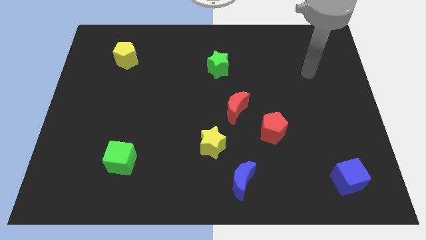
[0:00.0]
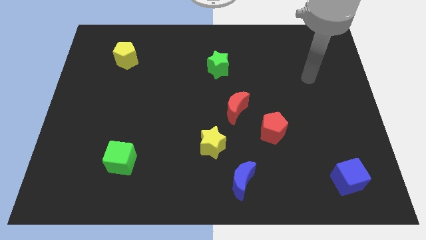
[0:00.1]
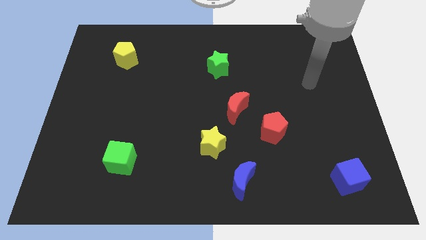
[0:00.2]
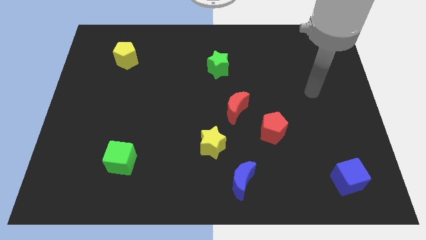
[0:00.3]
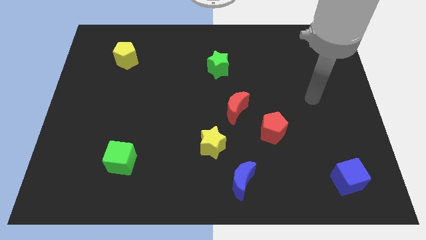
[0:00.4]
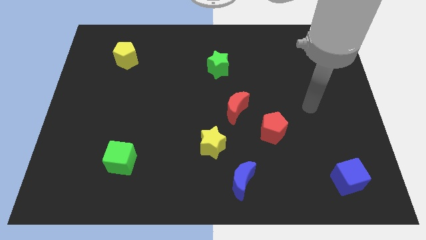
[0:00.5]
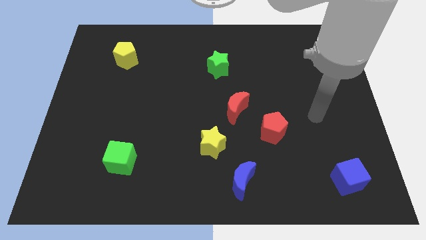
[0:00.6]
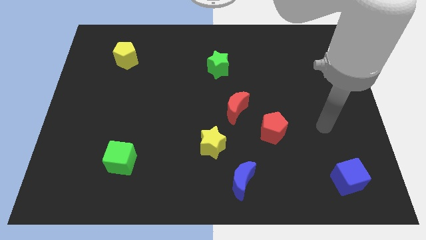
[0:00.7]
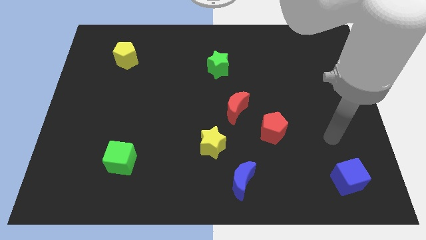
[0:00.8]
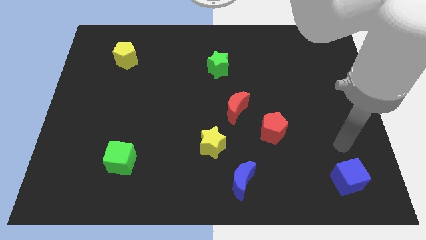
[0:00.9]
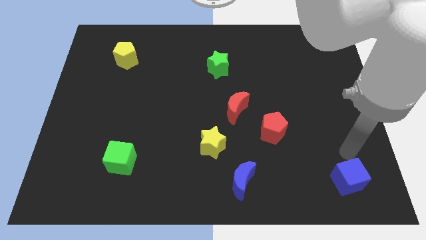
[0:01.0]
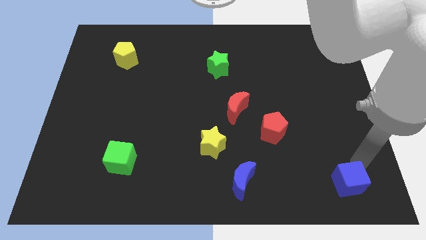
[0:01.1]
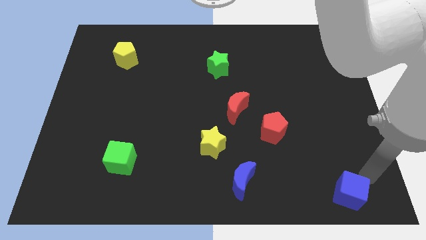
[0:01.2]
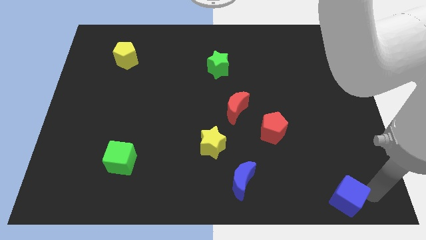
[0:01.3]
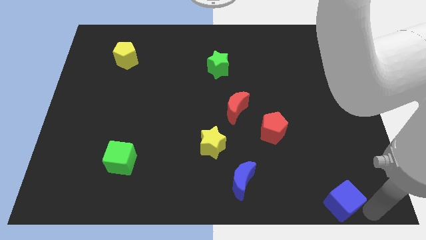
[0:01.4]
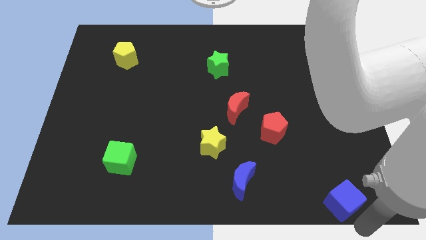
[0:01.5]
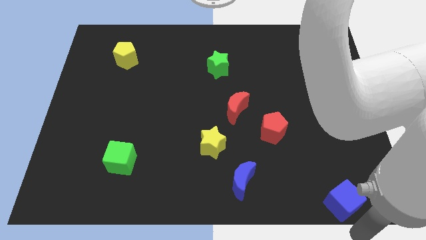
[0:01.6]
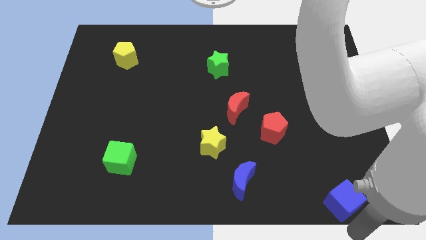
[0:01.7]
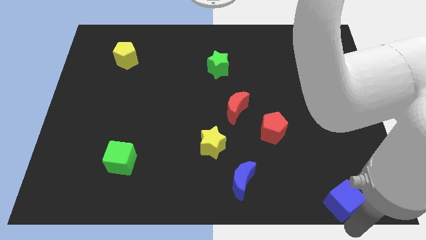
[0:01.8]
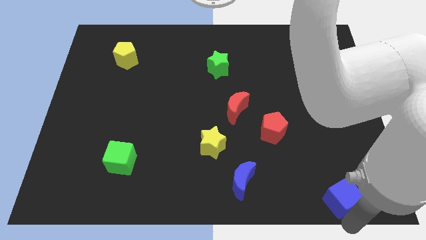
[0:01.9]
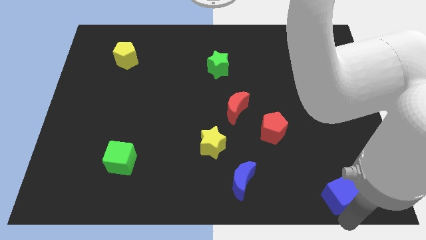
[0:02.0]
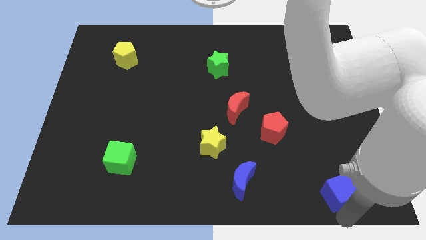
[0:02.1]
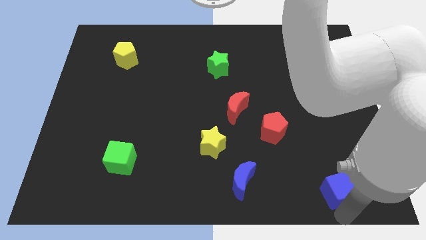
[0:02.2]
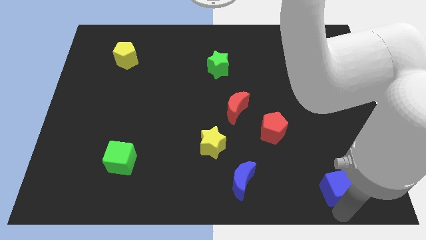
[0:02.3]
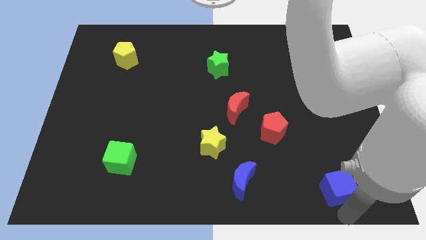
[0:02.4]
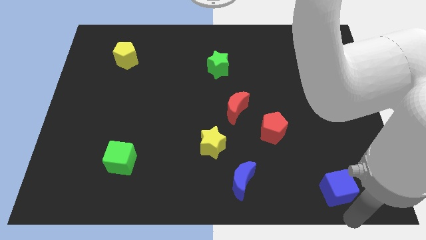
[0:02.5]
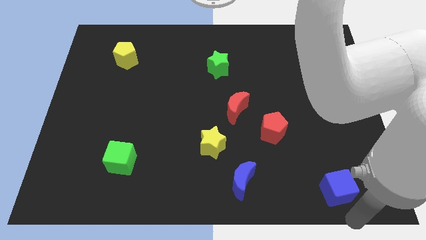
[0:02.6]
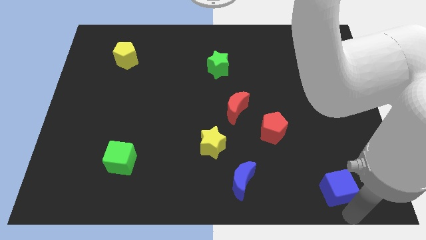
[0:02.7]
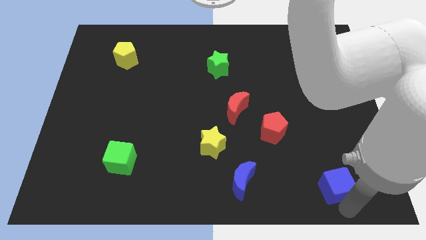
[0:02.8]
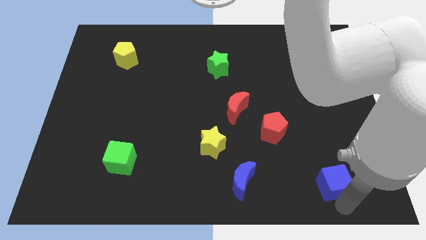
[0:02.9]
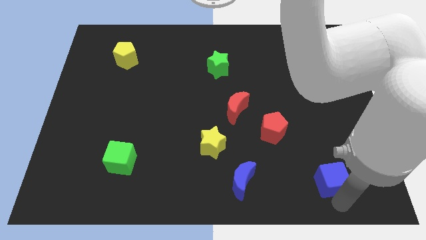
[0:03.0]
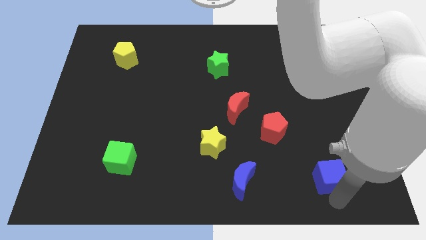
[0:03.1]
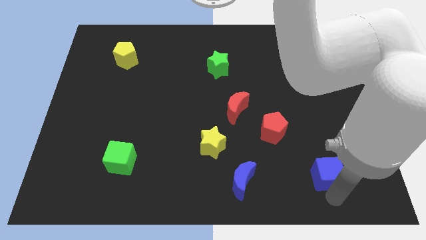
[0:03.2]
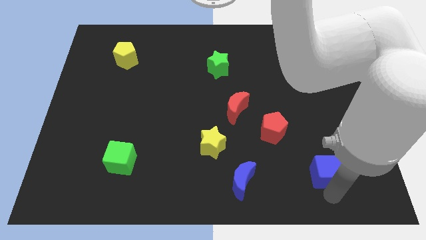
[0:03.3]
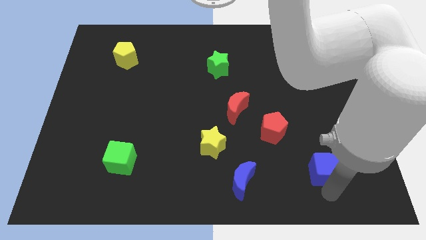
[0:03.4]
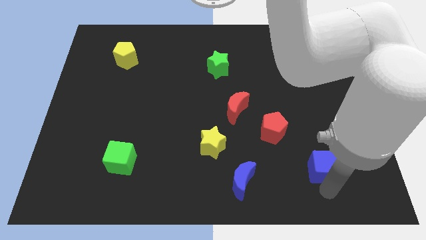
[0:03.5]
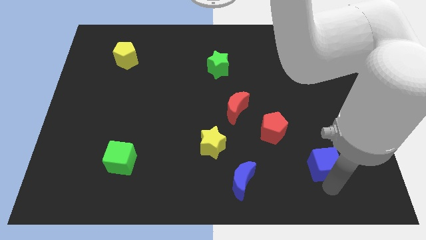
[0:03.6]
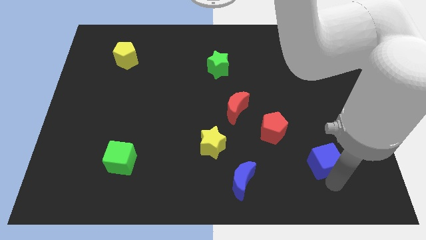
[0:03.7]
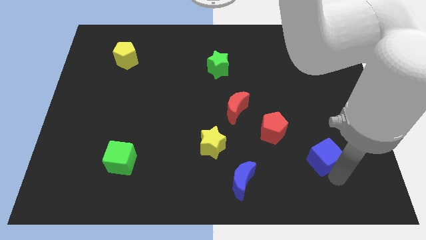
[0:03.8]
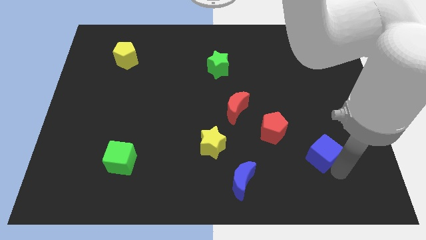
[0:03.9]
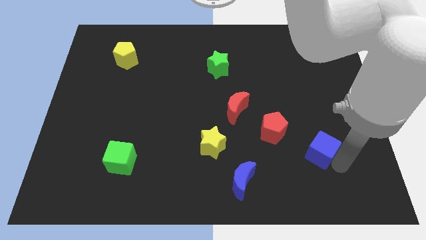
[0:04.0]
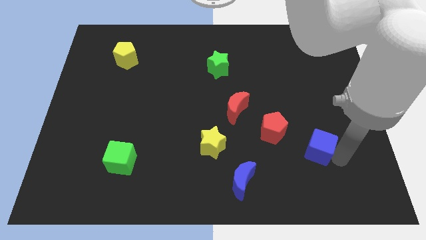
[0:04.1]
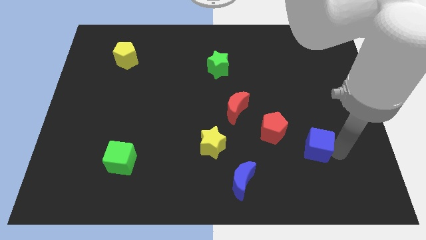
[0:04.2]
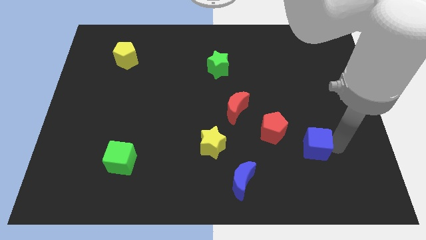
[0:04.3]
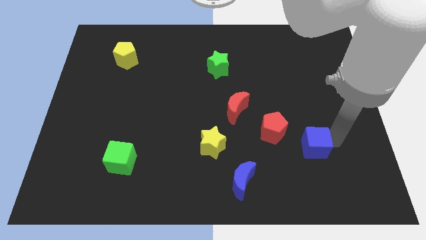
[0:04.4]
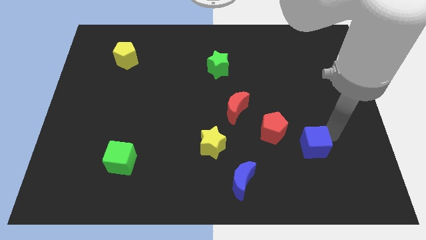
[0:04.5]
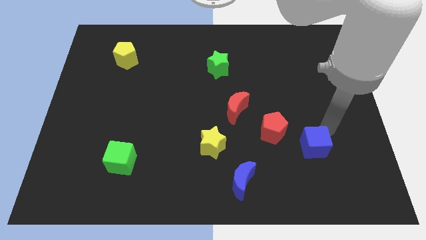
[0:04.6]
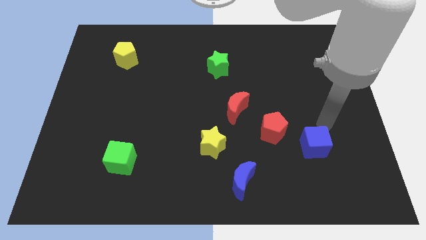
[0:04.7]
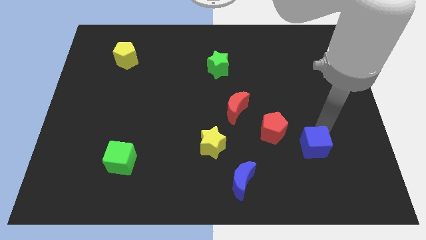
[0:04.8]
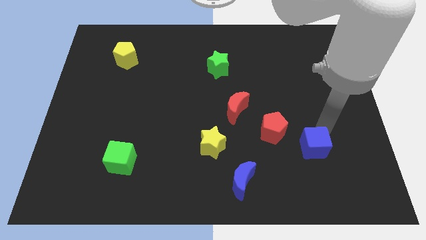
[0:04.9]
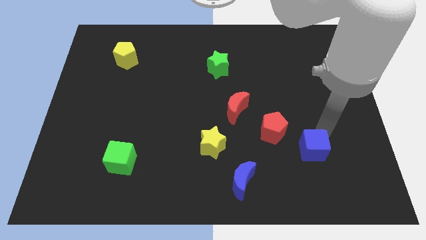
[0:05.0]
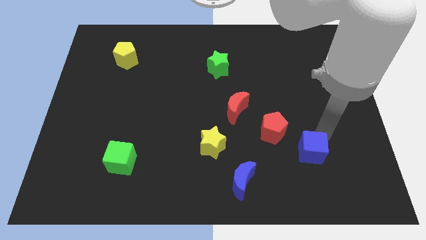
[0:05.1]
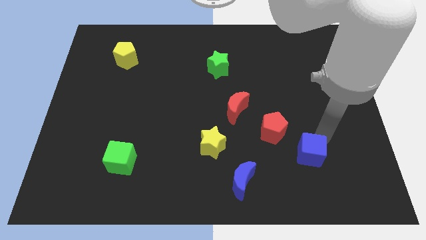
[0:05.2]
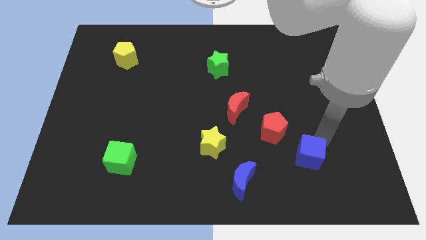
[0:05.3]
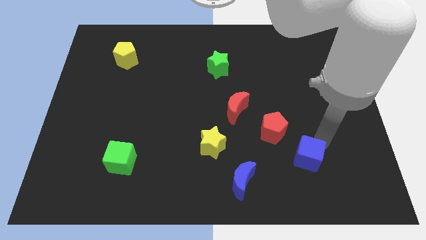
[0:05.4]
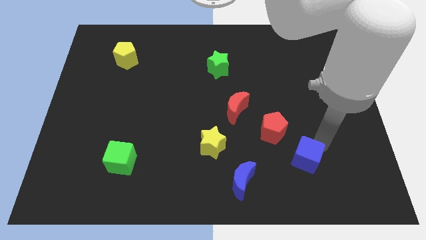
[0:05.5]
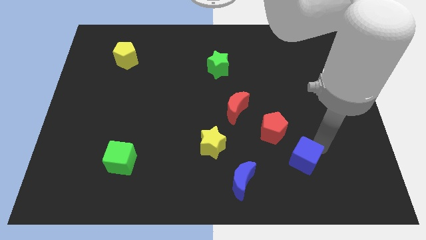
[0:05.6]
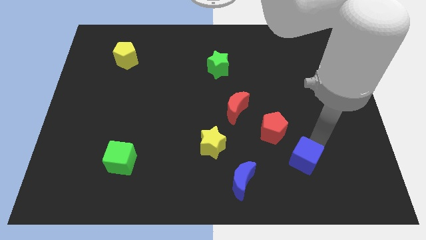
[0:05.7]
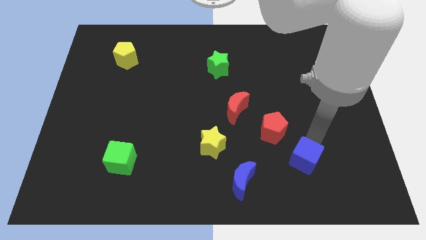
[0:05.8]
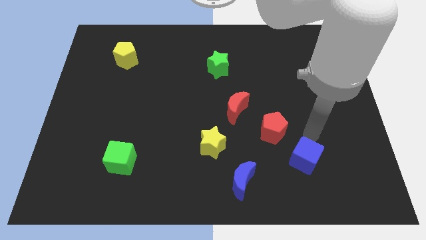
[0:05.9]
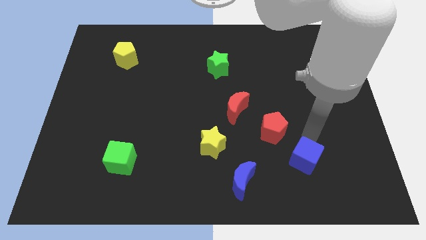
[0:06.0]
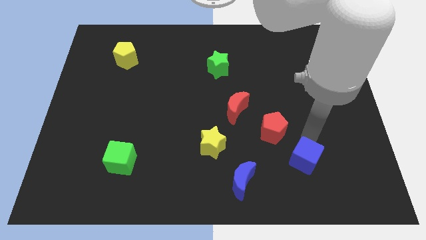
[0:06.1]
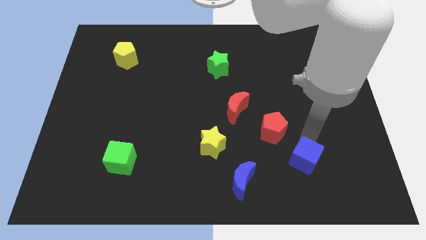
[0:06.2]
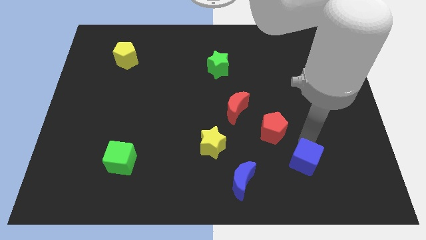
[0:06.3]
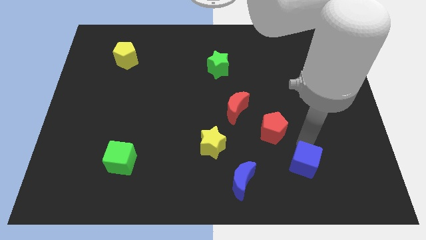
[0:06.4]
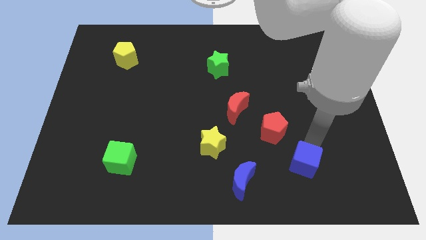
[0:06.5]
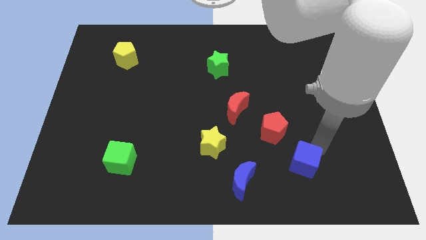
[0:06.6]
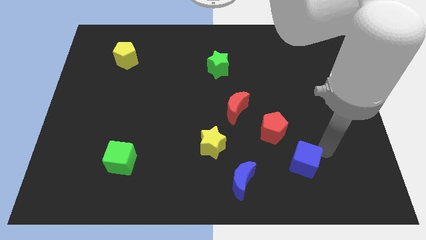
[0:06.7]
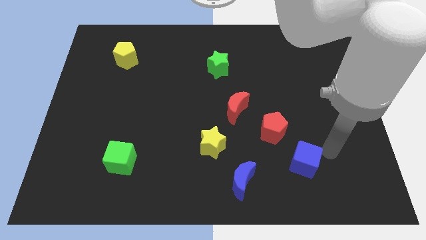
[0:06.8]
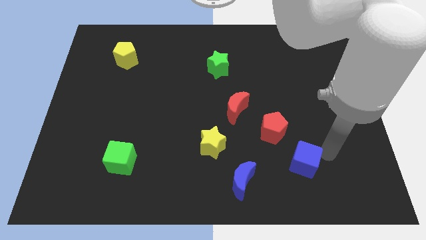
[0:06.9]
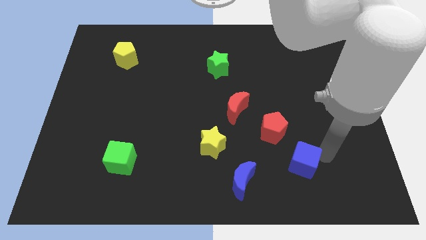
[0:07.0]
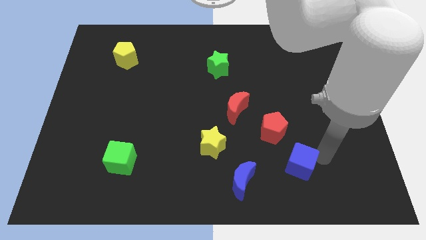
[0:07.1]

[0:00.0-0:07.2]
put the blue cube to the bottom of the red pentagon

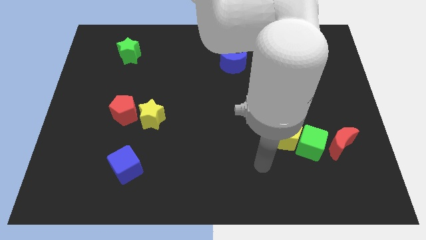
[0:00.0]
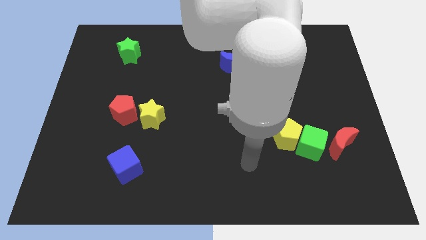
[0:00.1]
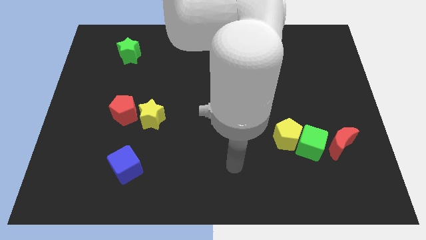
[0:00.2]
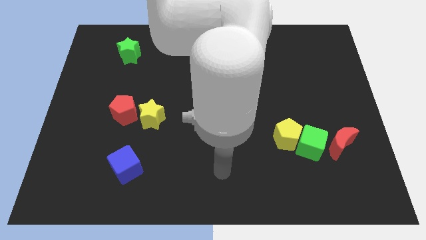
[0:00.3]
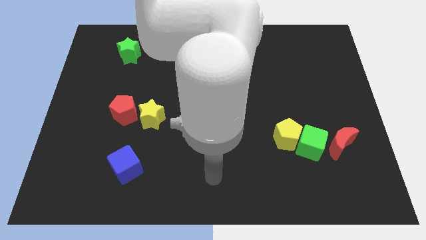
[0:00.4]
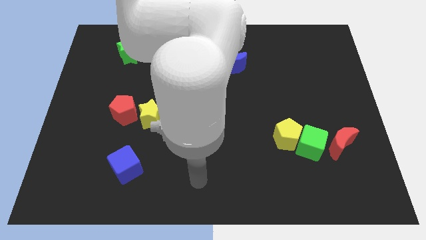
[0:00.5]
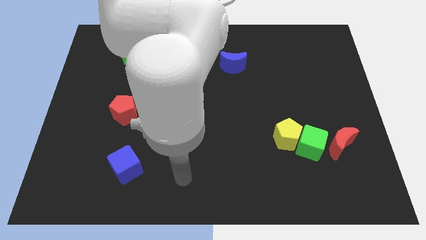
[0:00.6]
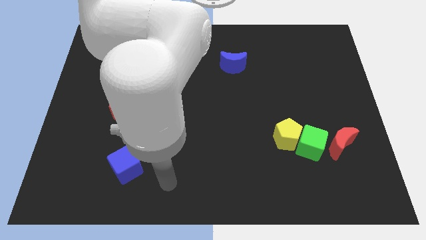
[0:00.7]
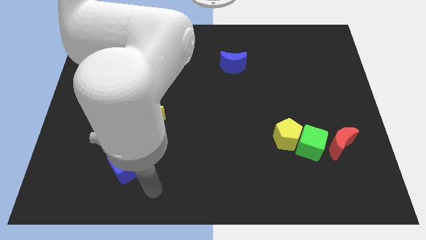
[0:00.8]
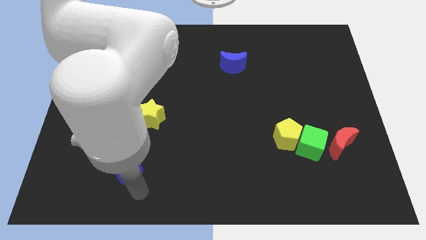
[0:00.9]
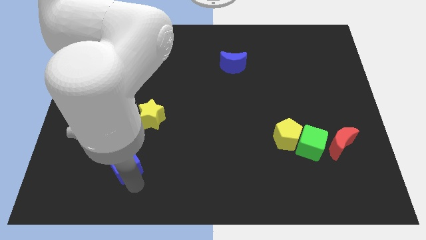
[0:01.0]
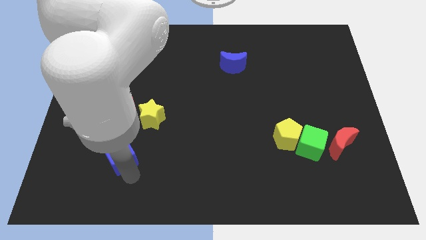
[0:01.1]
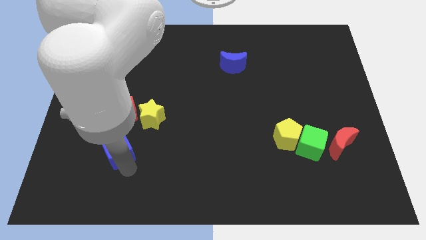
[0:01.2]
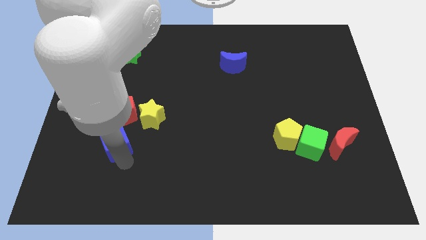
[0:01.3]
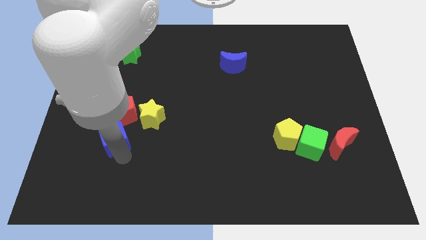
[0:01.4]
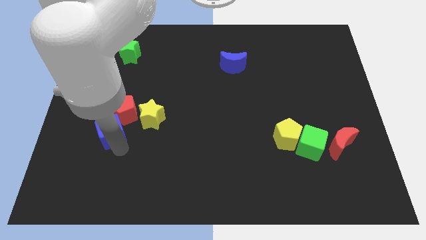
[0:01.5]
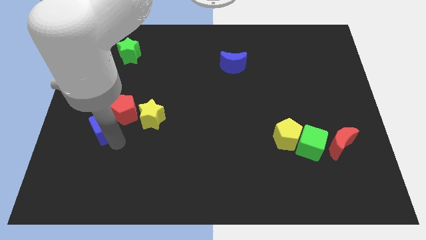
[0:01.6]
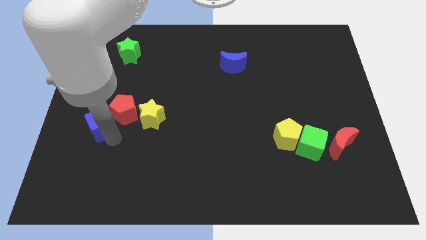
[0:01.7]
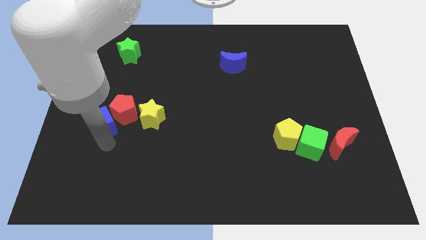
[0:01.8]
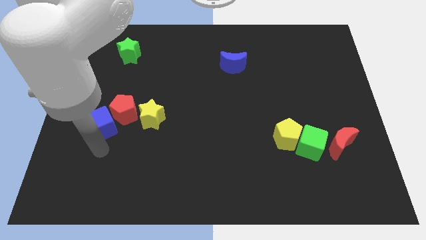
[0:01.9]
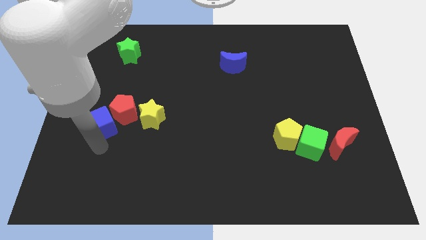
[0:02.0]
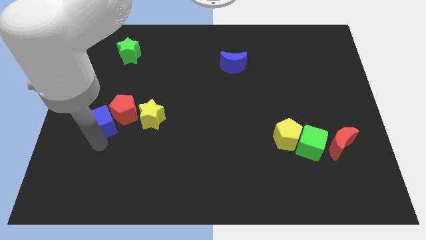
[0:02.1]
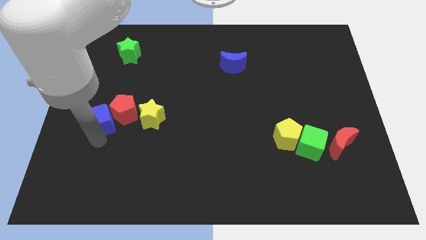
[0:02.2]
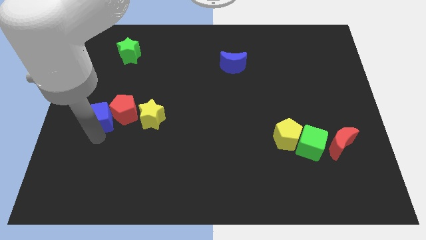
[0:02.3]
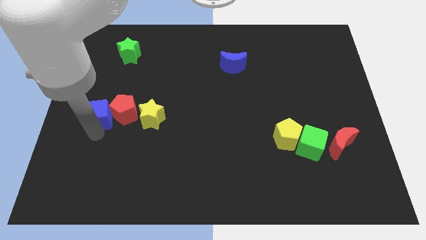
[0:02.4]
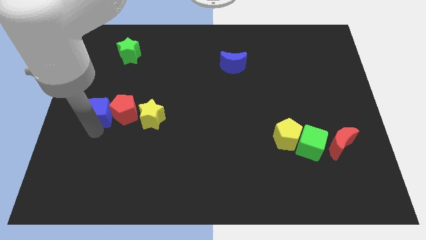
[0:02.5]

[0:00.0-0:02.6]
put the blue cube diagonally up and to the left of the red pentagon
